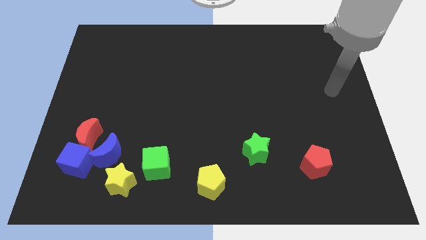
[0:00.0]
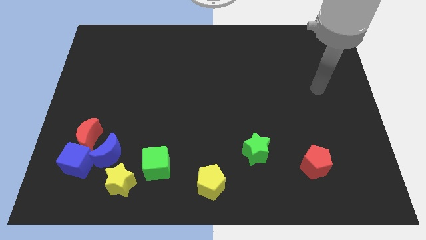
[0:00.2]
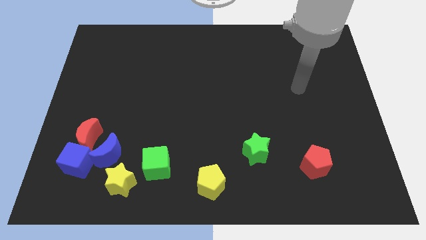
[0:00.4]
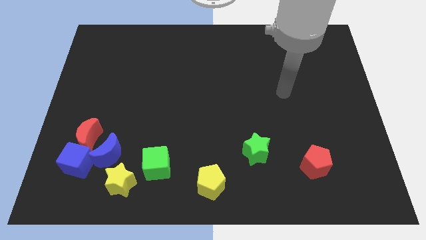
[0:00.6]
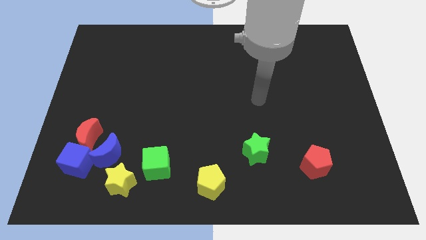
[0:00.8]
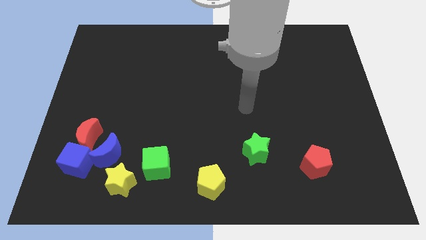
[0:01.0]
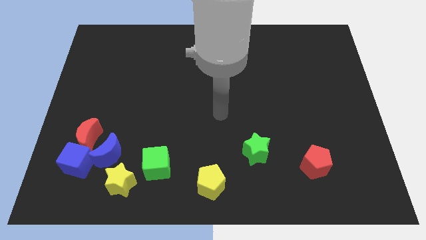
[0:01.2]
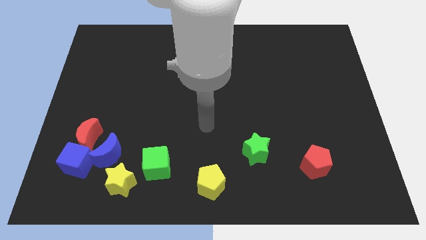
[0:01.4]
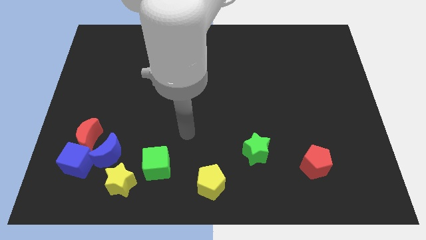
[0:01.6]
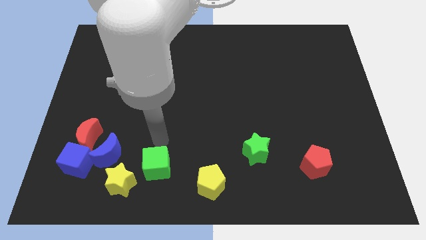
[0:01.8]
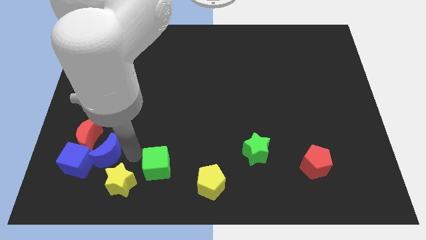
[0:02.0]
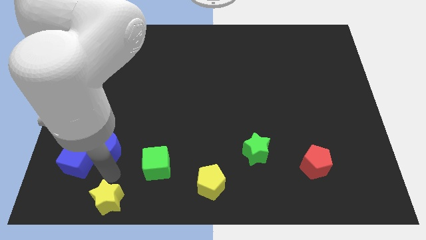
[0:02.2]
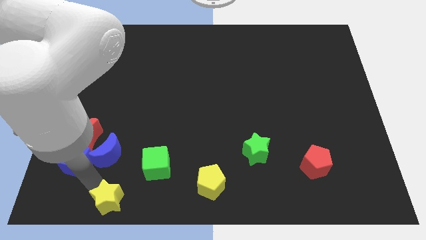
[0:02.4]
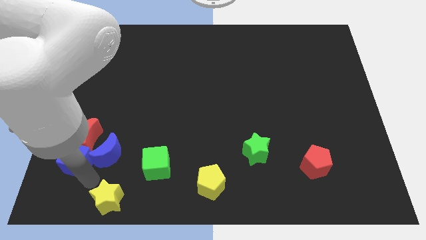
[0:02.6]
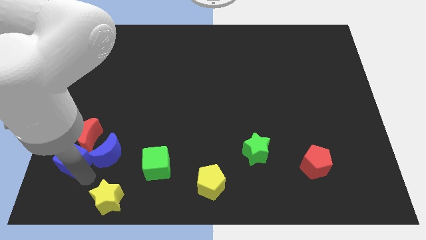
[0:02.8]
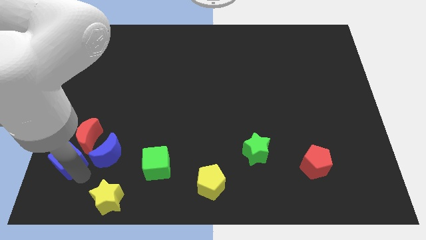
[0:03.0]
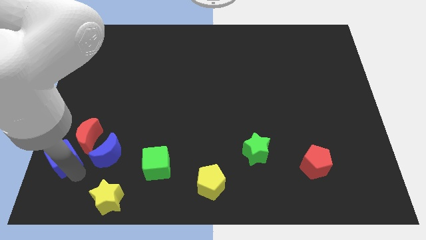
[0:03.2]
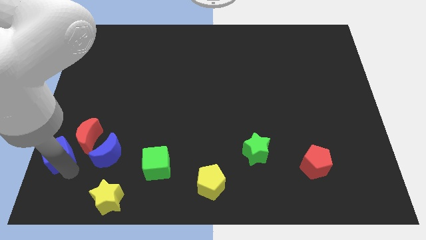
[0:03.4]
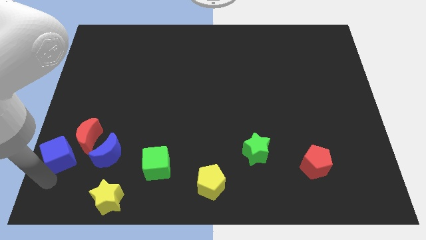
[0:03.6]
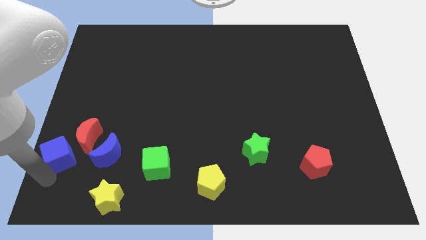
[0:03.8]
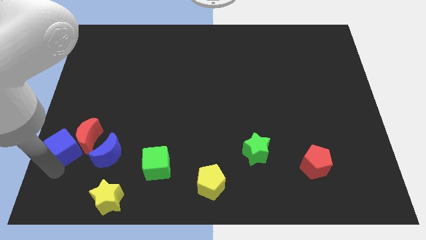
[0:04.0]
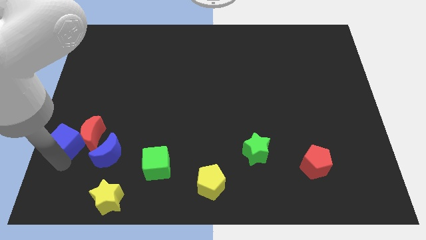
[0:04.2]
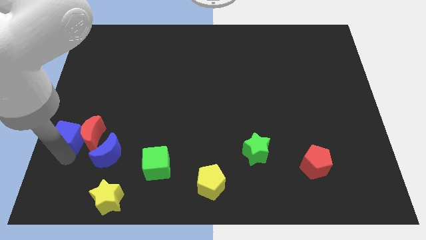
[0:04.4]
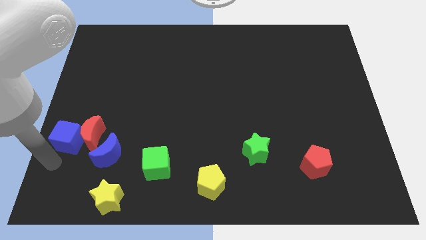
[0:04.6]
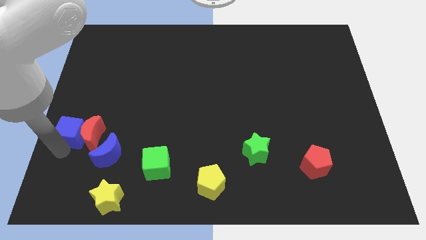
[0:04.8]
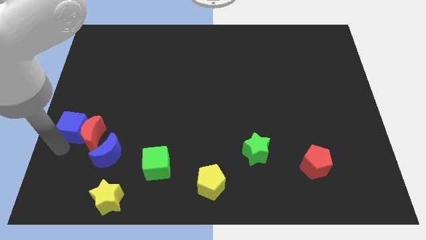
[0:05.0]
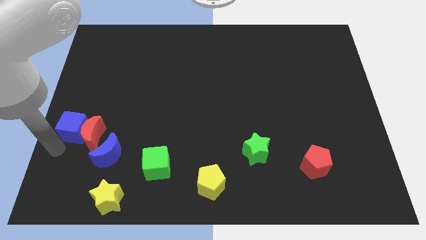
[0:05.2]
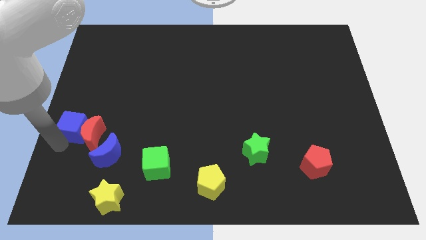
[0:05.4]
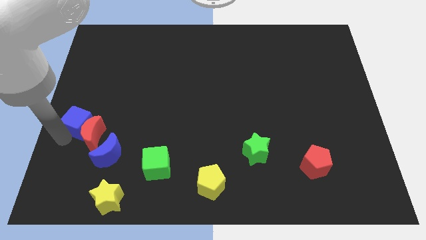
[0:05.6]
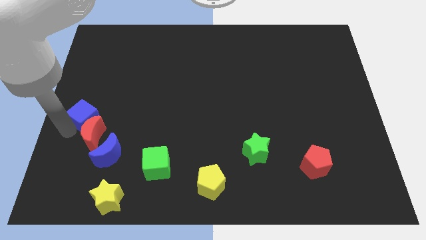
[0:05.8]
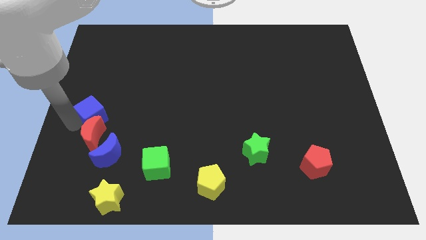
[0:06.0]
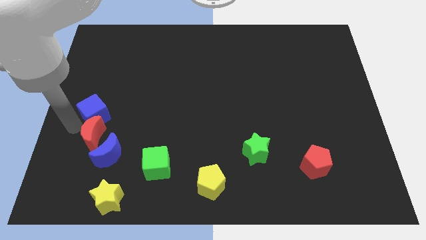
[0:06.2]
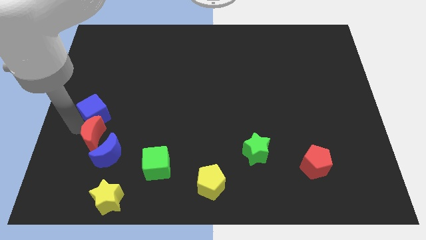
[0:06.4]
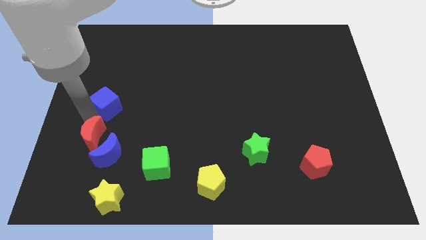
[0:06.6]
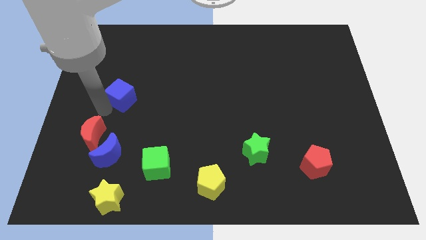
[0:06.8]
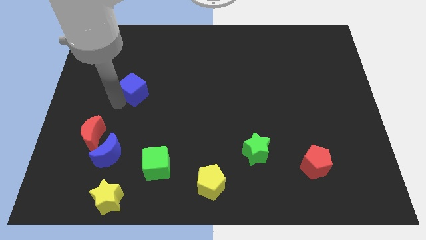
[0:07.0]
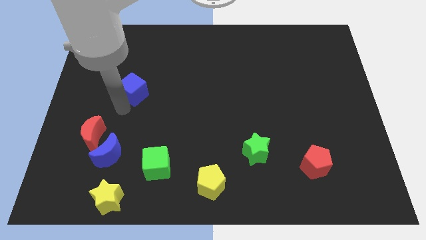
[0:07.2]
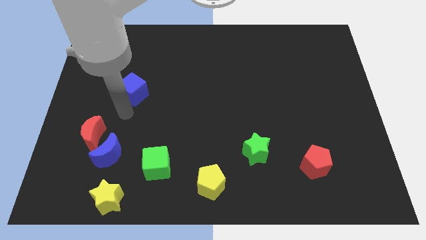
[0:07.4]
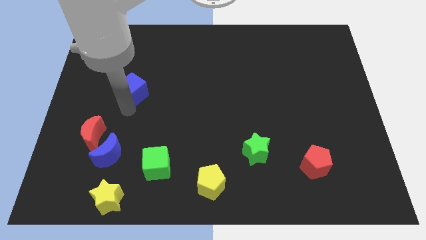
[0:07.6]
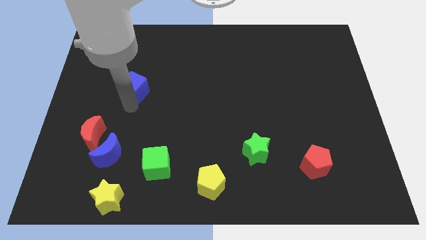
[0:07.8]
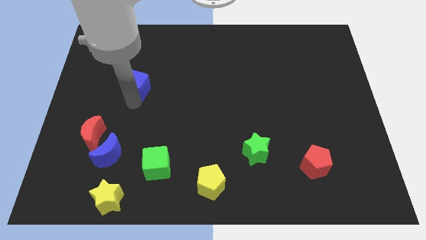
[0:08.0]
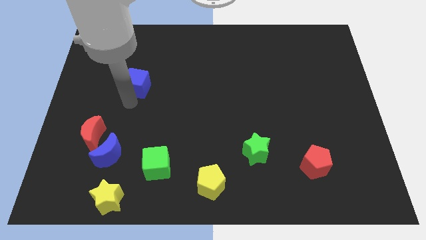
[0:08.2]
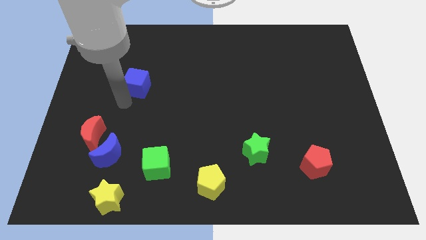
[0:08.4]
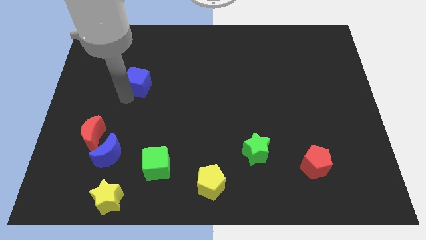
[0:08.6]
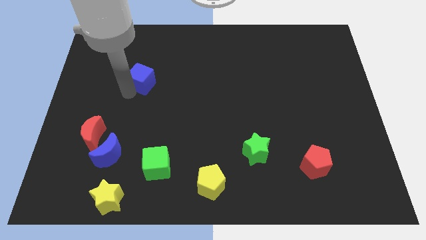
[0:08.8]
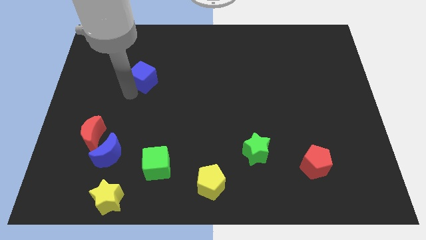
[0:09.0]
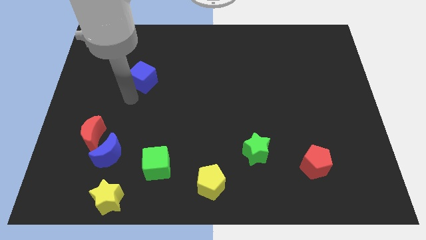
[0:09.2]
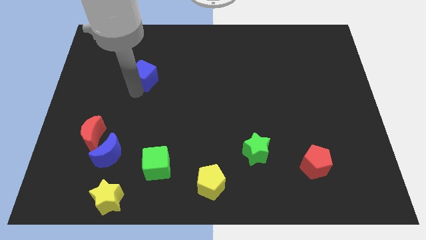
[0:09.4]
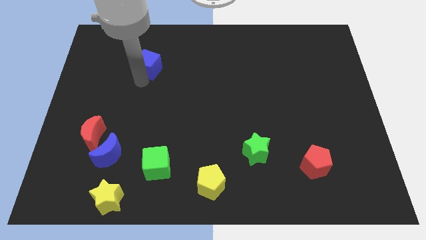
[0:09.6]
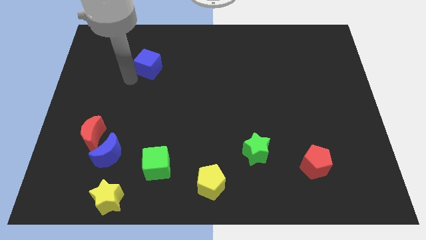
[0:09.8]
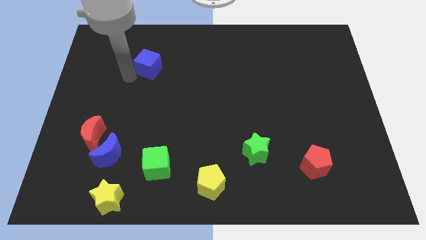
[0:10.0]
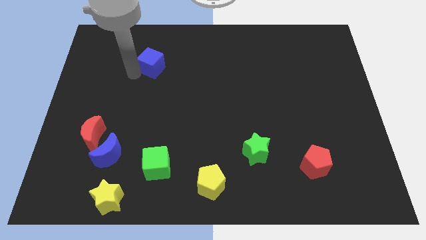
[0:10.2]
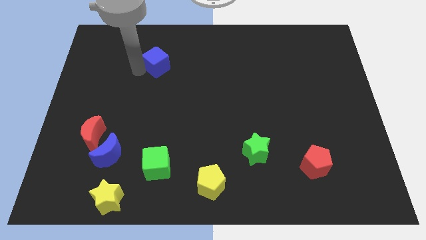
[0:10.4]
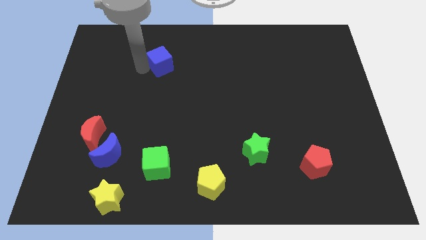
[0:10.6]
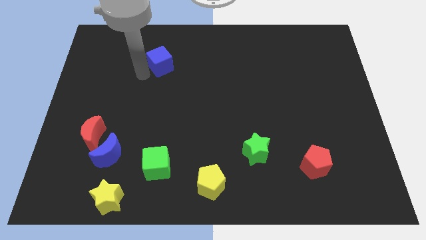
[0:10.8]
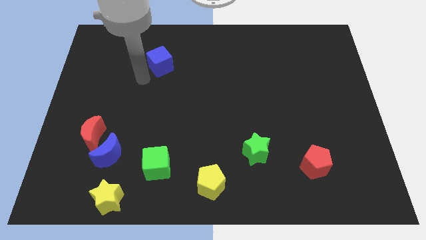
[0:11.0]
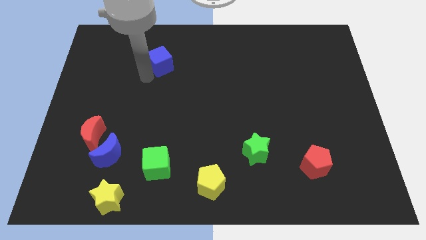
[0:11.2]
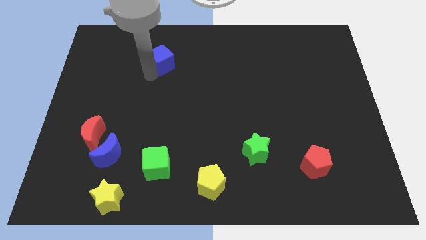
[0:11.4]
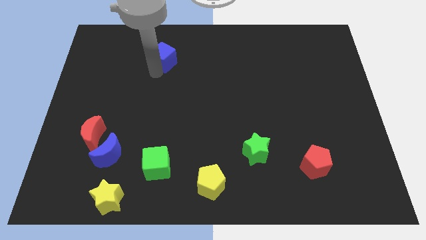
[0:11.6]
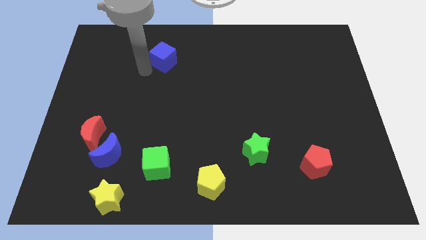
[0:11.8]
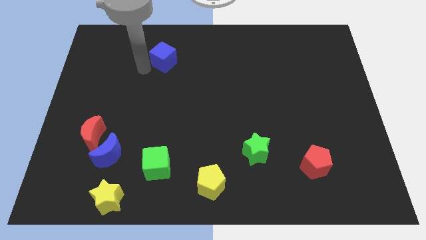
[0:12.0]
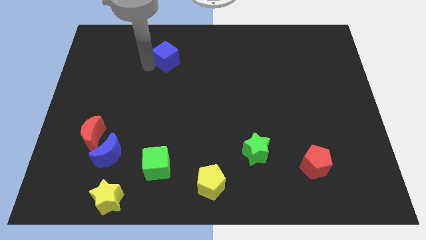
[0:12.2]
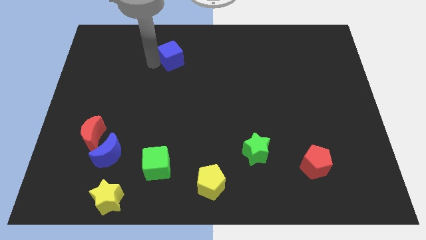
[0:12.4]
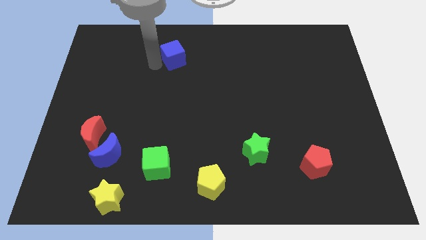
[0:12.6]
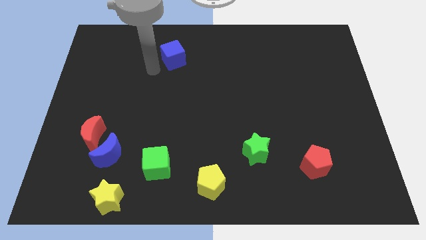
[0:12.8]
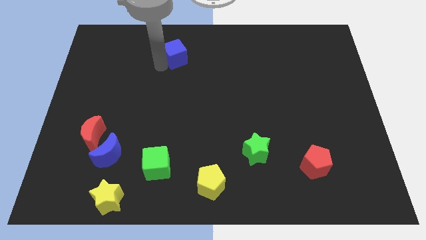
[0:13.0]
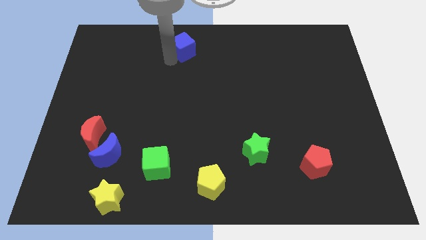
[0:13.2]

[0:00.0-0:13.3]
put the blue cube to the top side

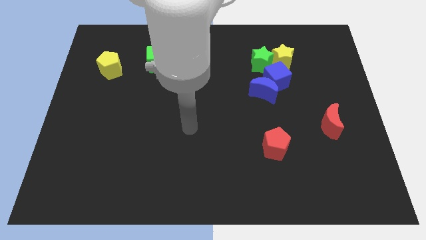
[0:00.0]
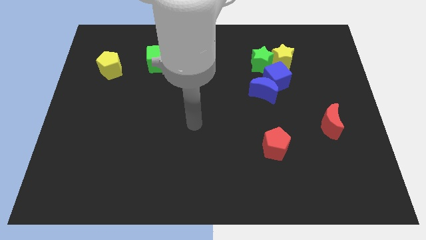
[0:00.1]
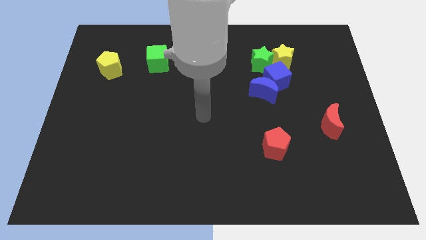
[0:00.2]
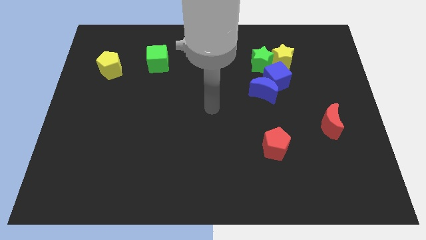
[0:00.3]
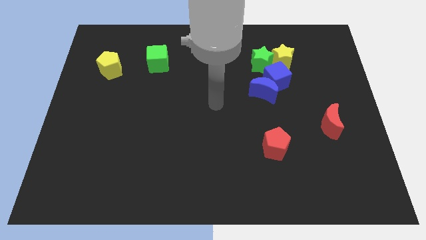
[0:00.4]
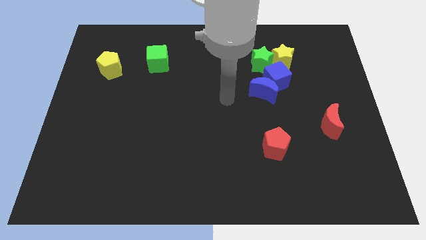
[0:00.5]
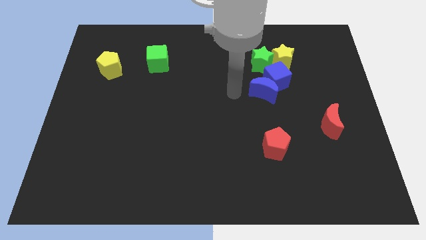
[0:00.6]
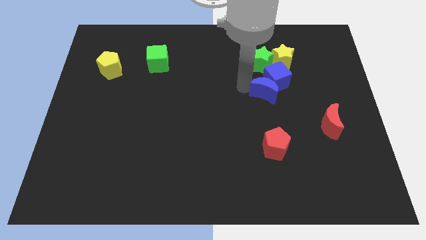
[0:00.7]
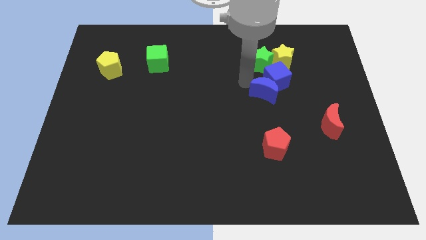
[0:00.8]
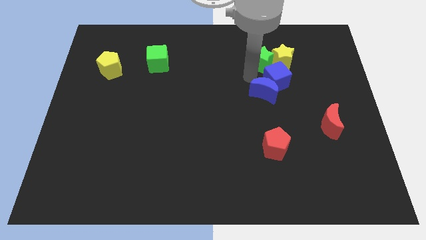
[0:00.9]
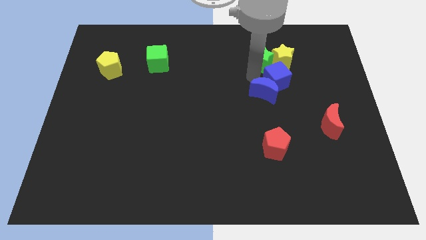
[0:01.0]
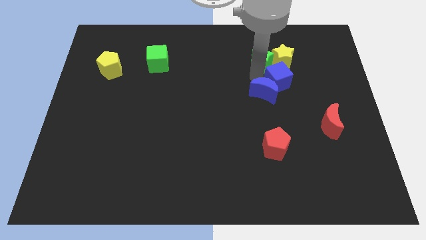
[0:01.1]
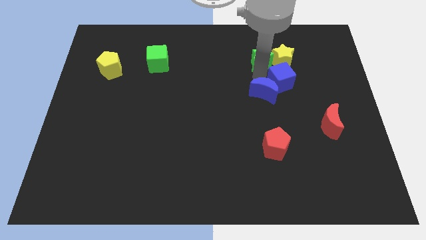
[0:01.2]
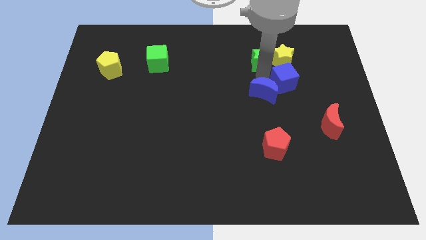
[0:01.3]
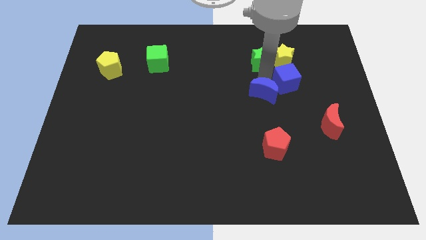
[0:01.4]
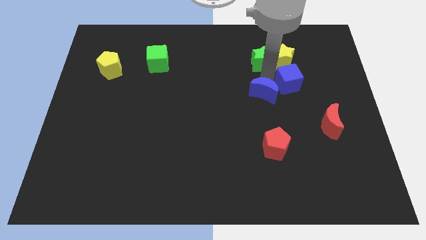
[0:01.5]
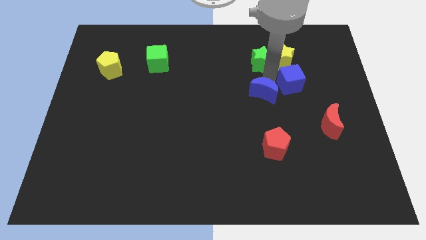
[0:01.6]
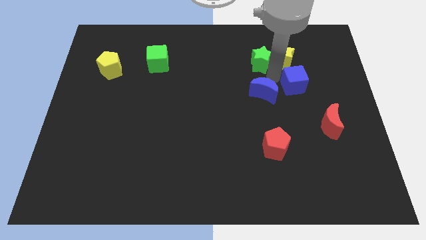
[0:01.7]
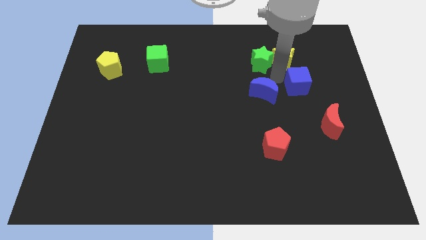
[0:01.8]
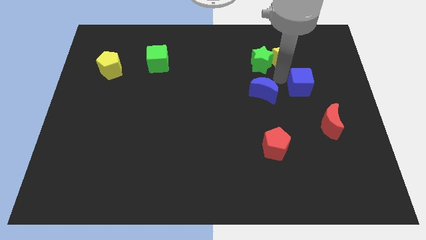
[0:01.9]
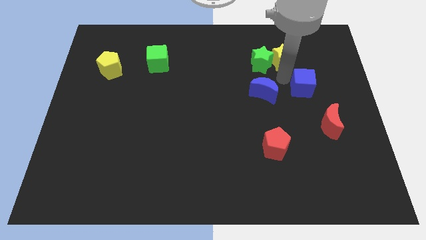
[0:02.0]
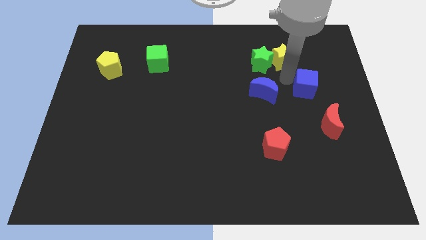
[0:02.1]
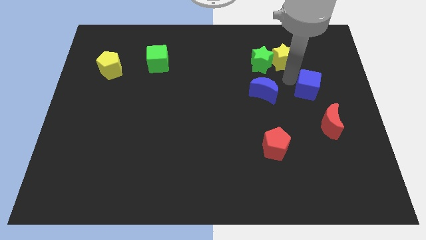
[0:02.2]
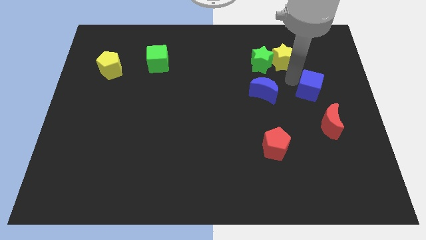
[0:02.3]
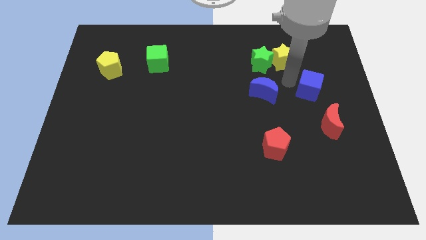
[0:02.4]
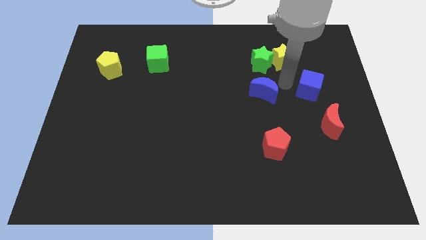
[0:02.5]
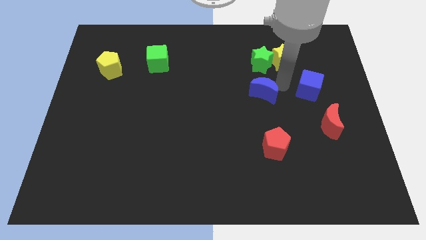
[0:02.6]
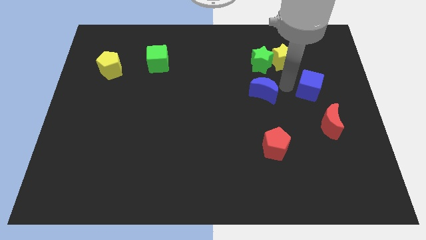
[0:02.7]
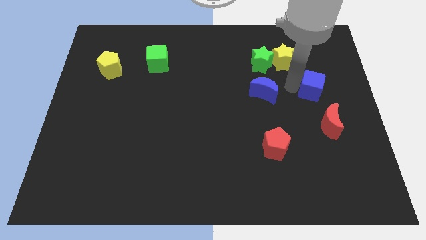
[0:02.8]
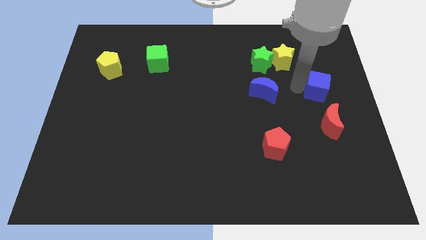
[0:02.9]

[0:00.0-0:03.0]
move the blue cube to the right side of the board
